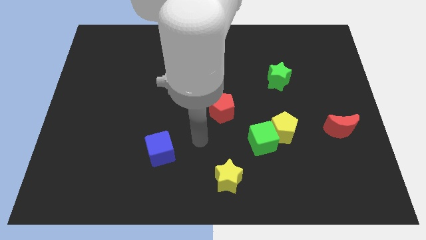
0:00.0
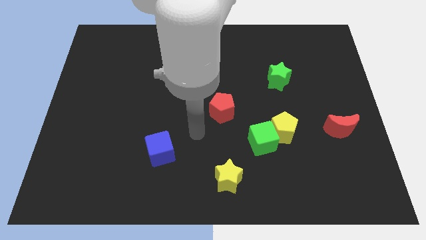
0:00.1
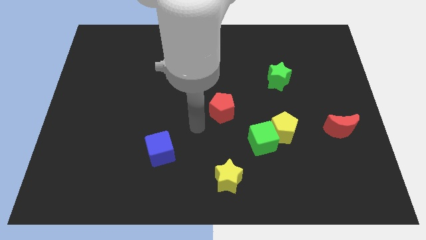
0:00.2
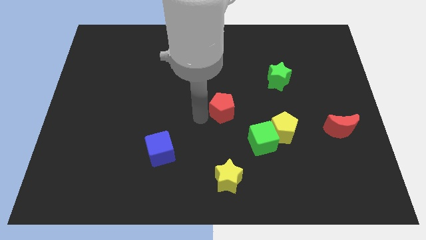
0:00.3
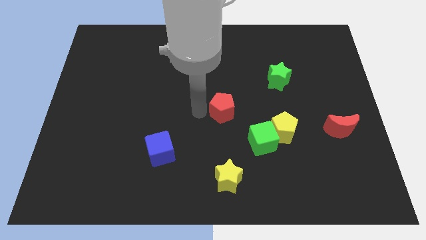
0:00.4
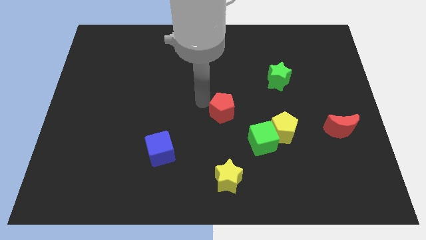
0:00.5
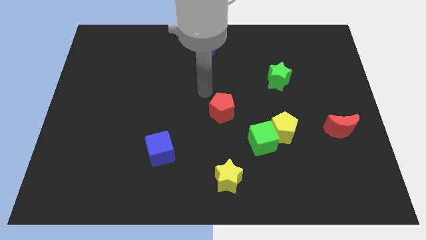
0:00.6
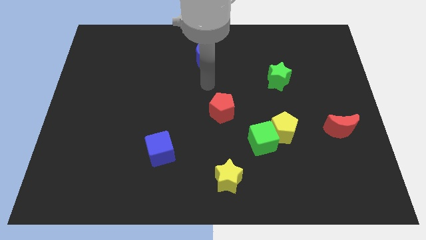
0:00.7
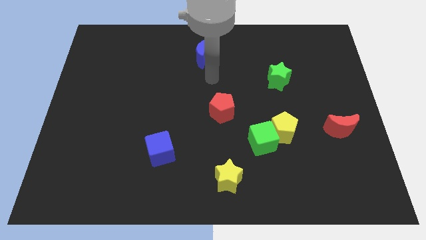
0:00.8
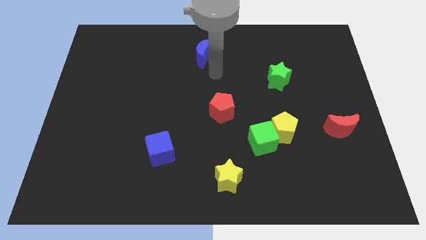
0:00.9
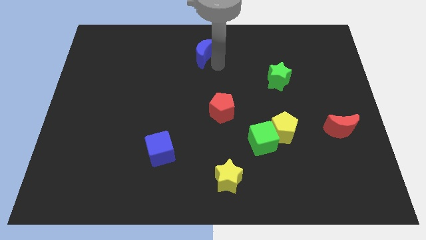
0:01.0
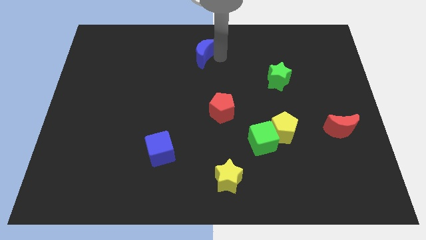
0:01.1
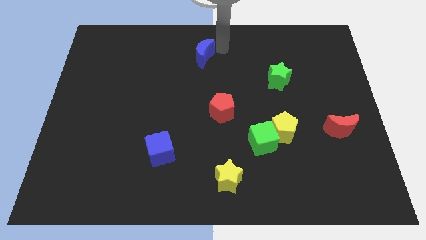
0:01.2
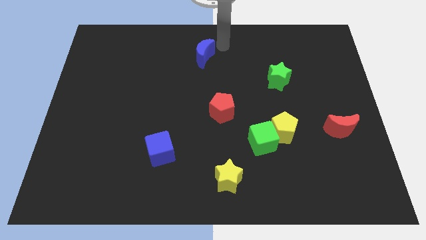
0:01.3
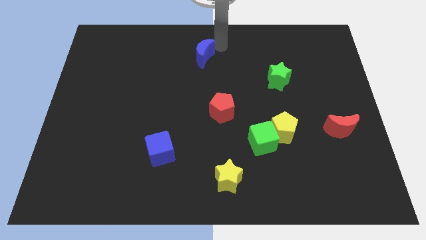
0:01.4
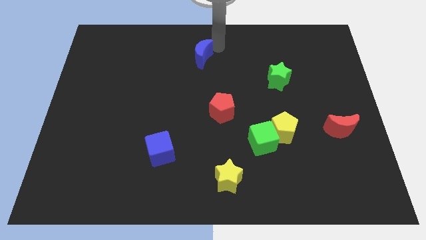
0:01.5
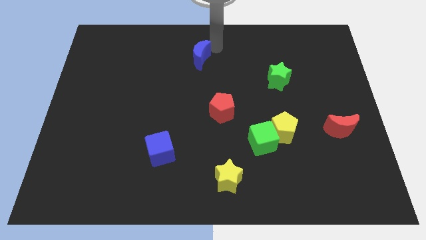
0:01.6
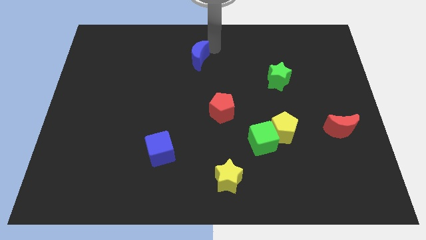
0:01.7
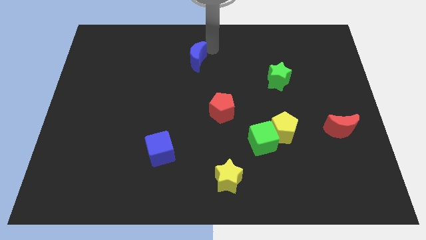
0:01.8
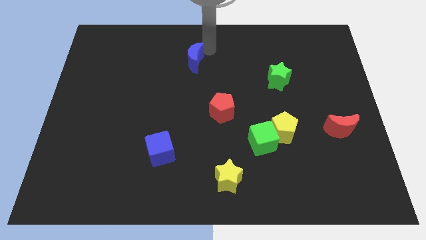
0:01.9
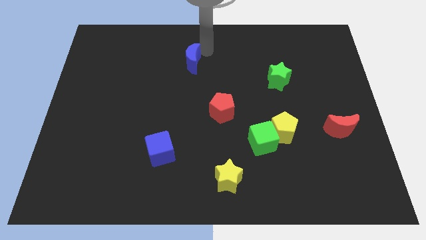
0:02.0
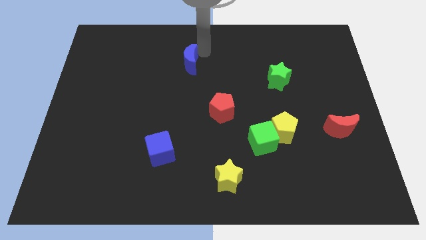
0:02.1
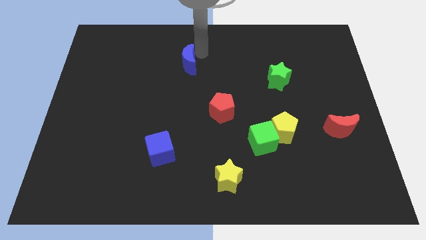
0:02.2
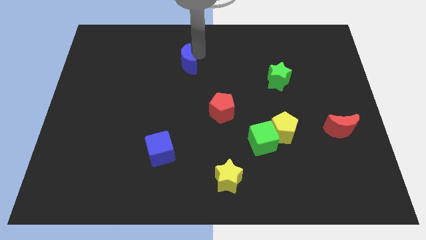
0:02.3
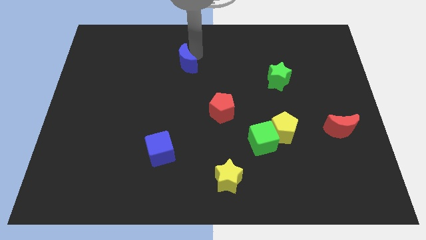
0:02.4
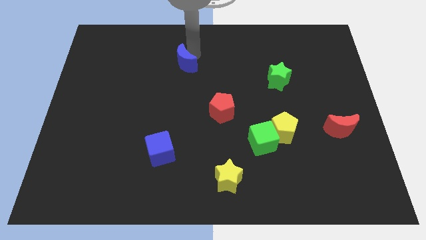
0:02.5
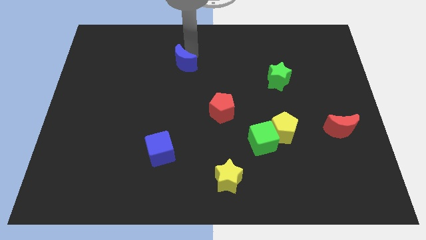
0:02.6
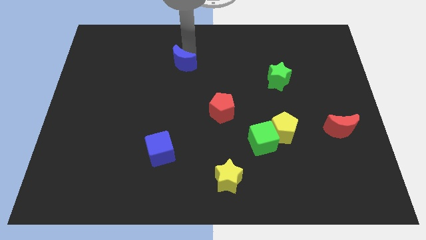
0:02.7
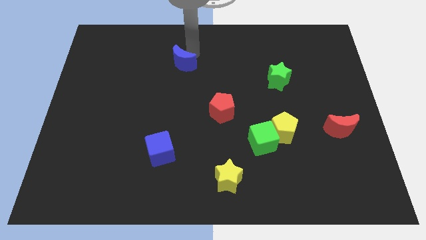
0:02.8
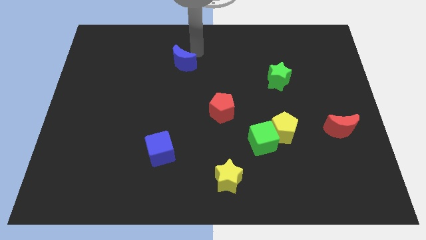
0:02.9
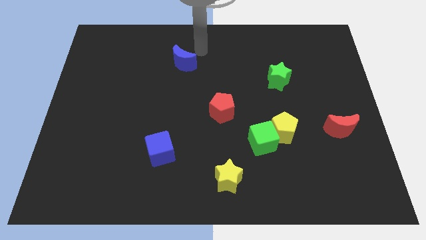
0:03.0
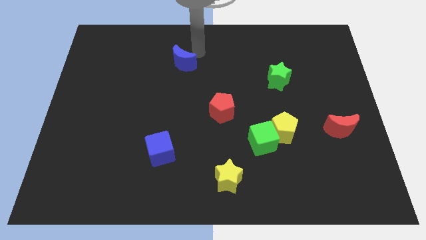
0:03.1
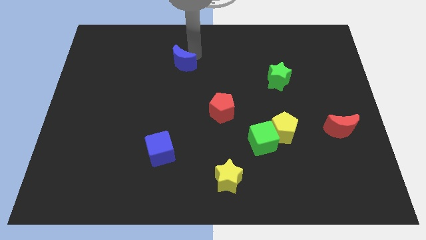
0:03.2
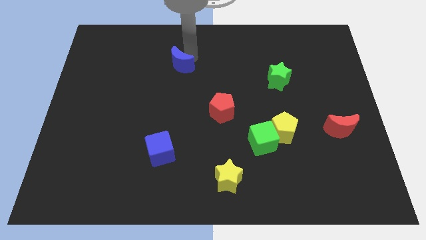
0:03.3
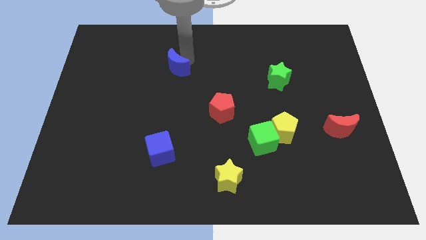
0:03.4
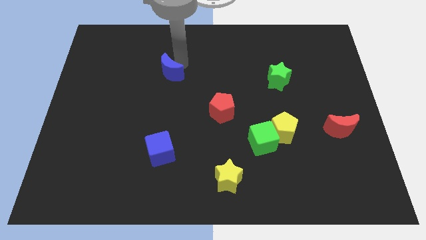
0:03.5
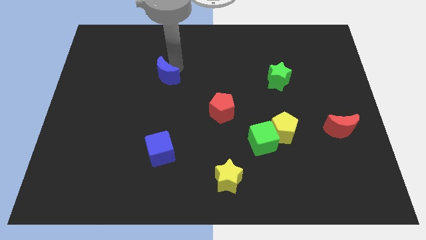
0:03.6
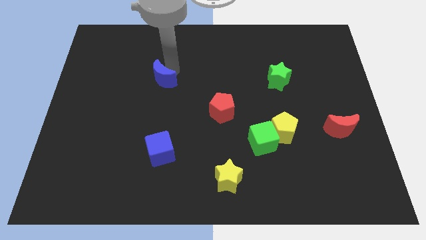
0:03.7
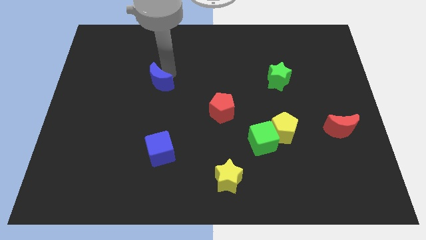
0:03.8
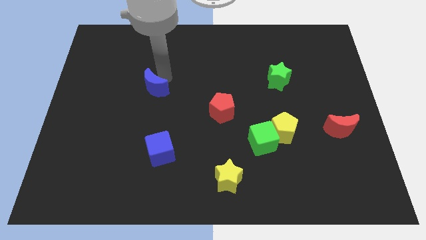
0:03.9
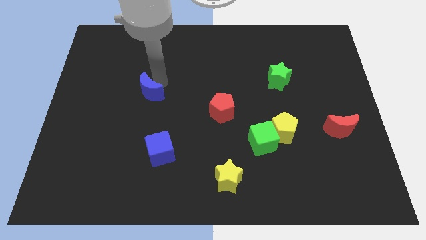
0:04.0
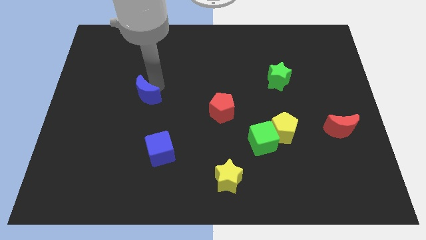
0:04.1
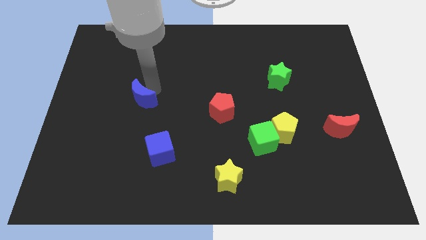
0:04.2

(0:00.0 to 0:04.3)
push the blue moon down and left

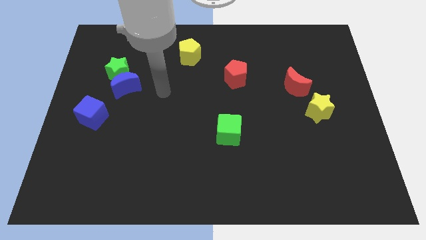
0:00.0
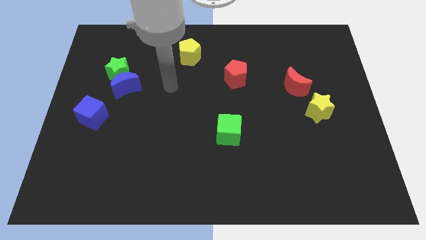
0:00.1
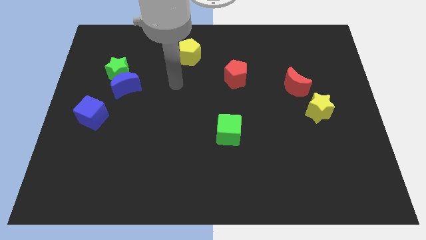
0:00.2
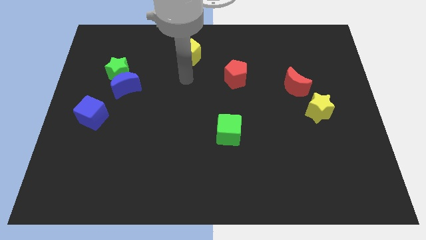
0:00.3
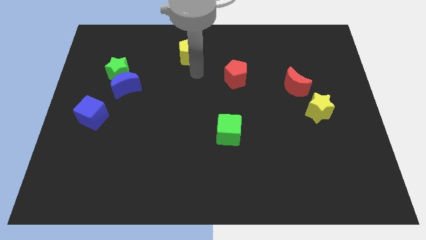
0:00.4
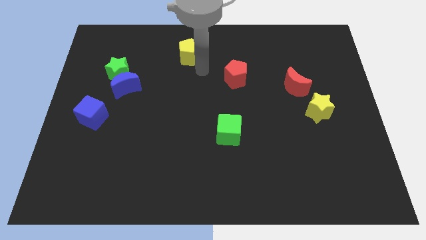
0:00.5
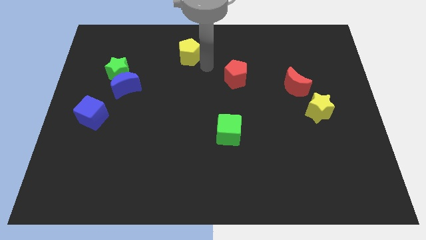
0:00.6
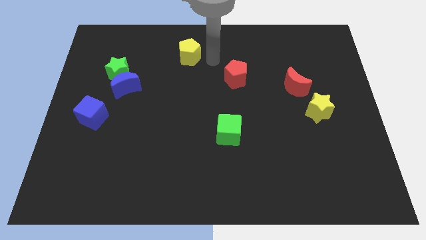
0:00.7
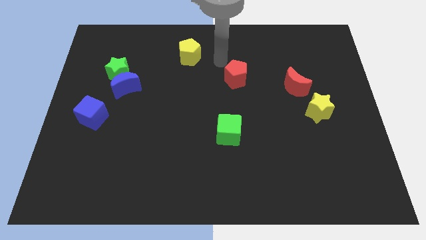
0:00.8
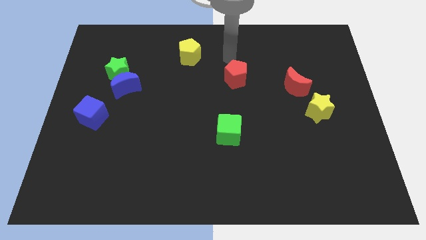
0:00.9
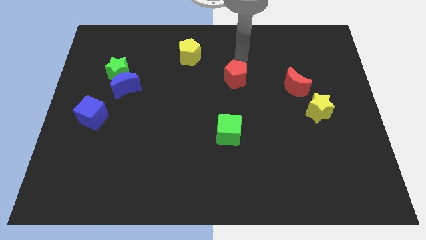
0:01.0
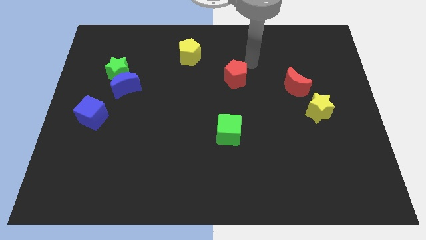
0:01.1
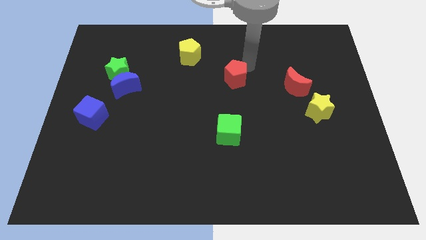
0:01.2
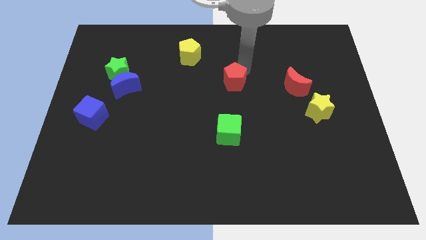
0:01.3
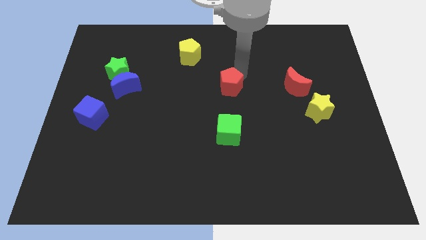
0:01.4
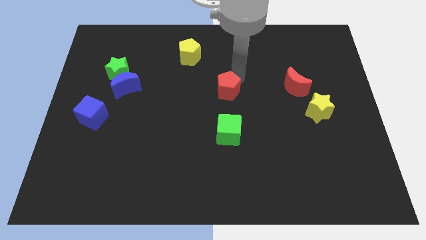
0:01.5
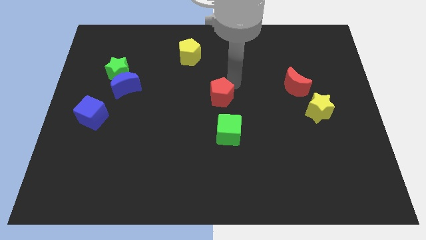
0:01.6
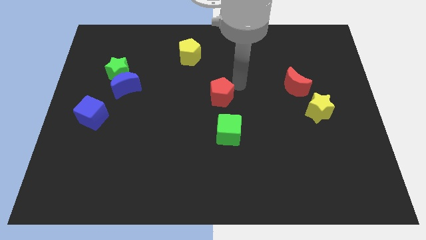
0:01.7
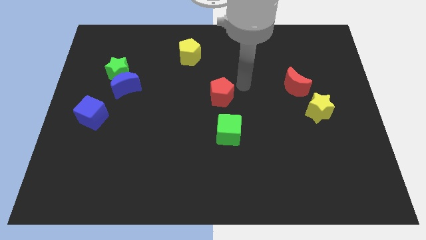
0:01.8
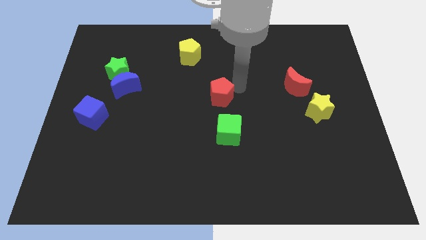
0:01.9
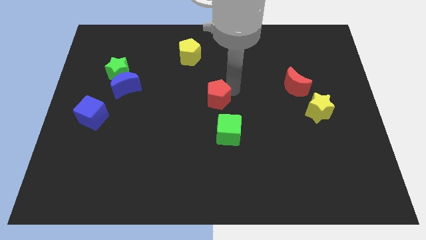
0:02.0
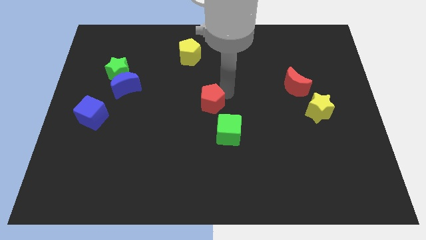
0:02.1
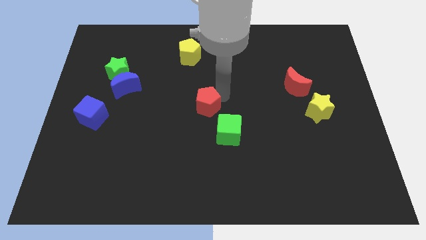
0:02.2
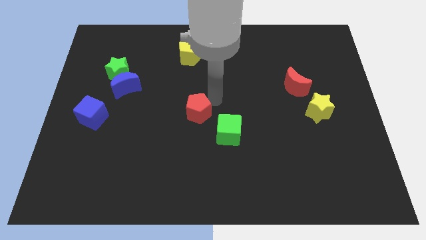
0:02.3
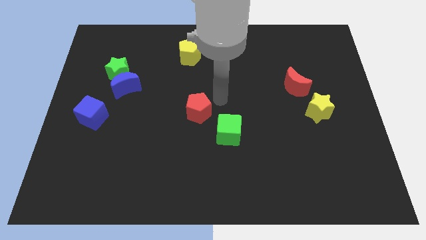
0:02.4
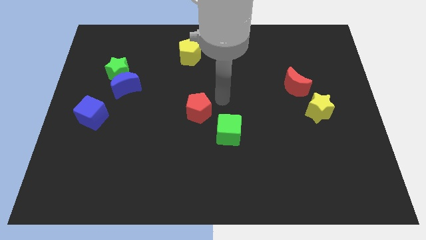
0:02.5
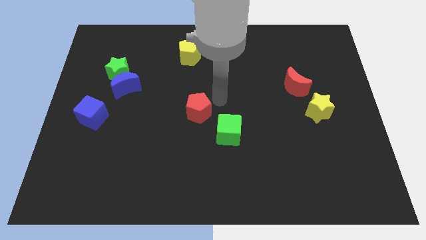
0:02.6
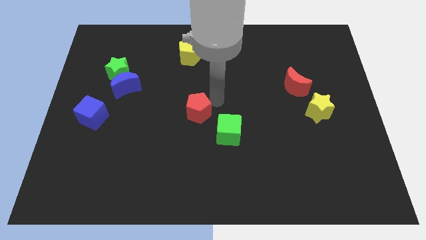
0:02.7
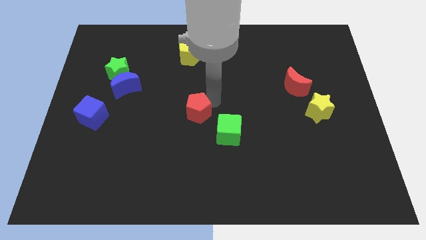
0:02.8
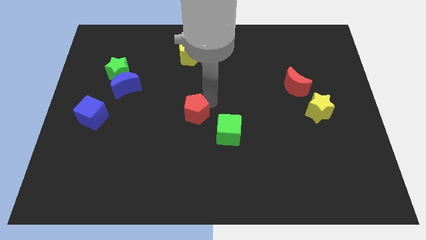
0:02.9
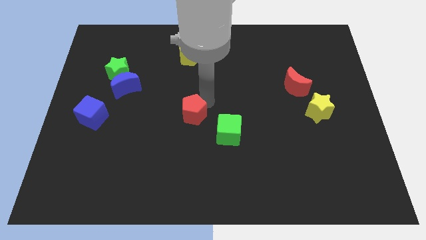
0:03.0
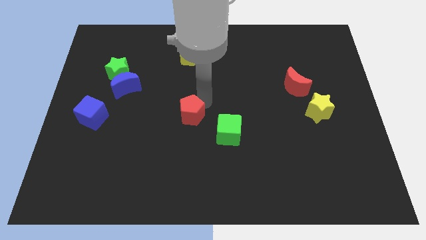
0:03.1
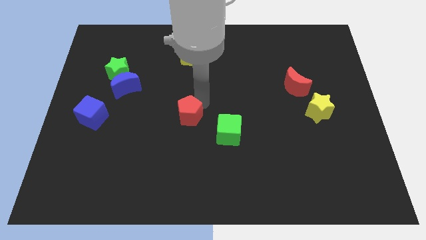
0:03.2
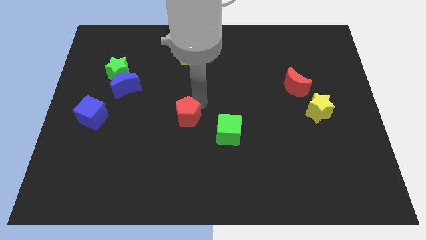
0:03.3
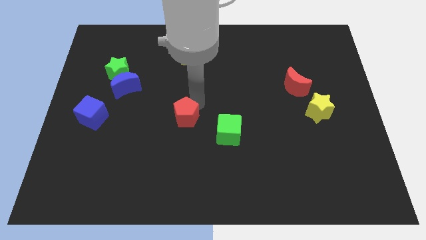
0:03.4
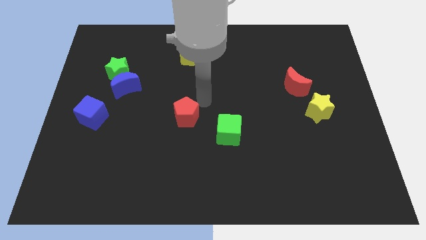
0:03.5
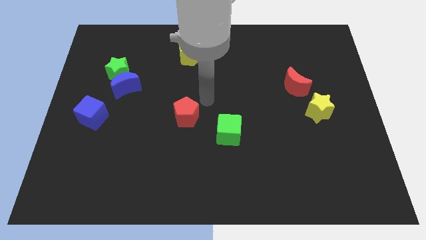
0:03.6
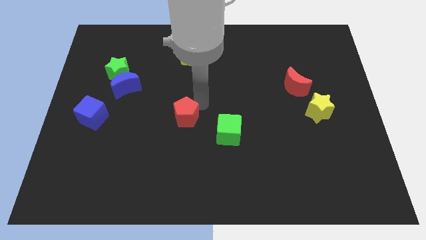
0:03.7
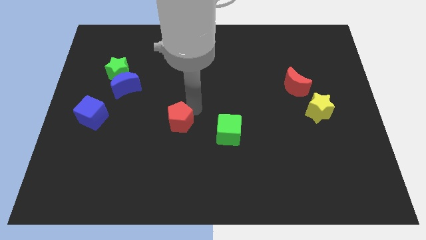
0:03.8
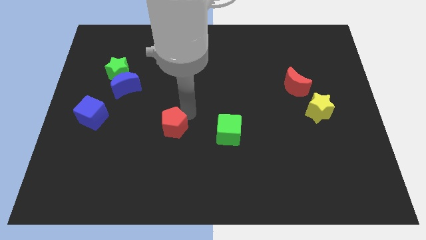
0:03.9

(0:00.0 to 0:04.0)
move the red pentagon downwards and then left

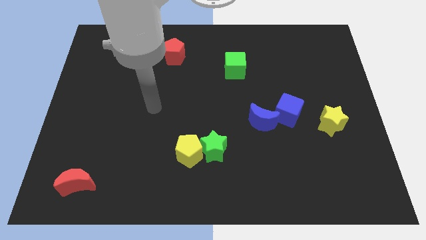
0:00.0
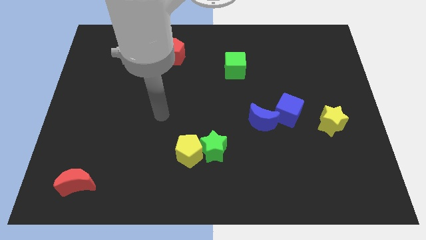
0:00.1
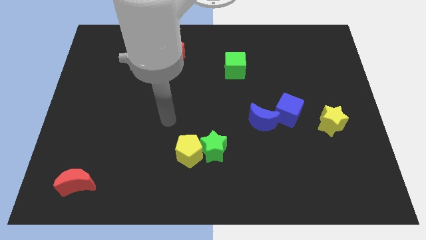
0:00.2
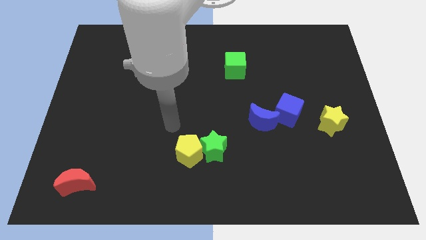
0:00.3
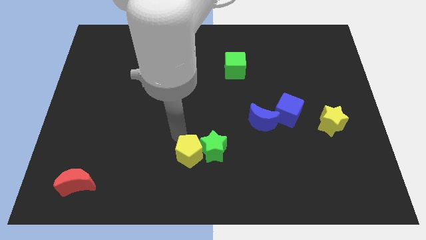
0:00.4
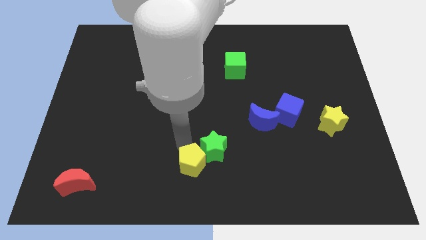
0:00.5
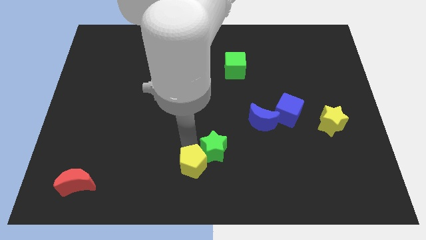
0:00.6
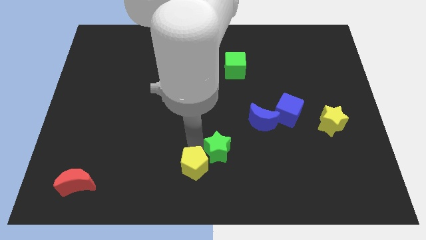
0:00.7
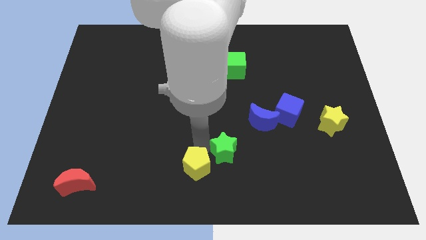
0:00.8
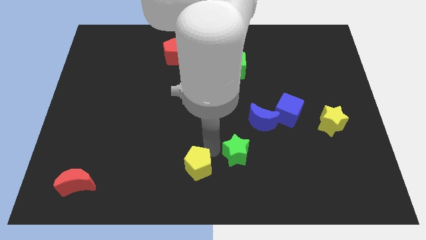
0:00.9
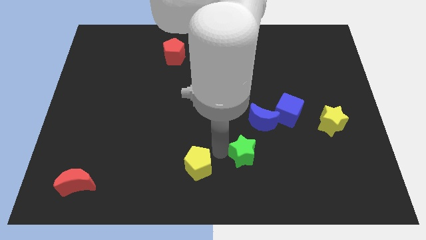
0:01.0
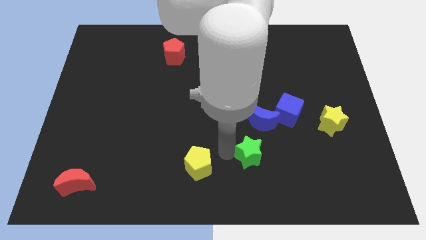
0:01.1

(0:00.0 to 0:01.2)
slightly move the green star right
